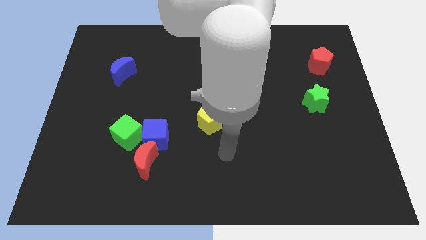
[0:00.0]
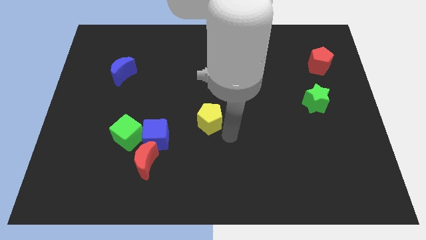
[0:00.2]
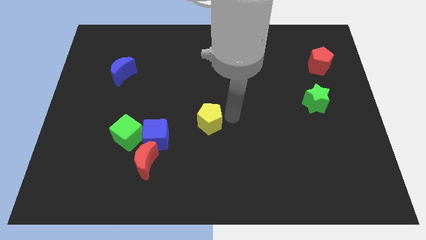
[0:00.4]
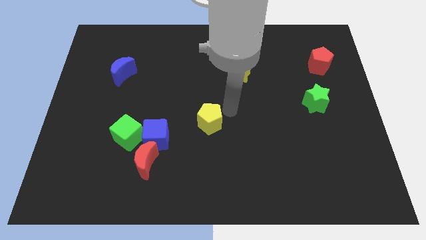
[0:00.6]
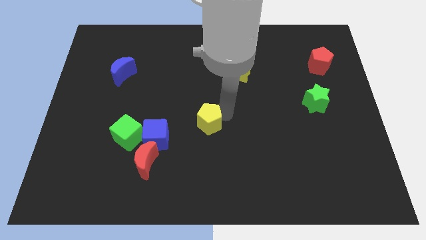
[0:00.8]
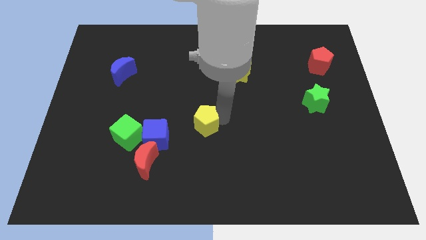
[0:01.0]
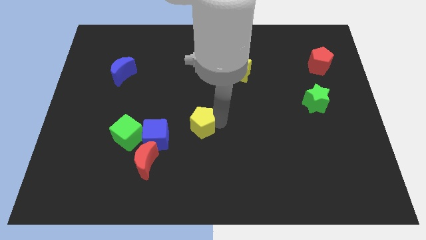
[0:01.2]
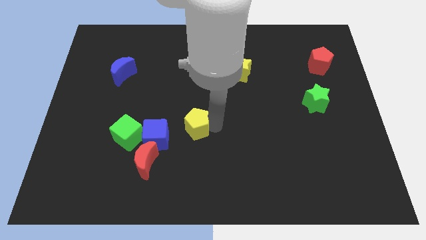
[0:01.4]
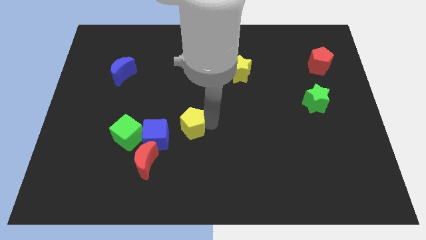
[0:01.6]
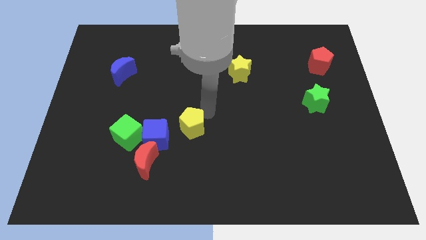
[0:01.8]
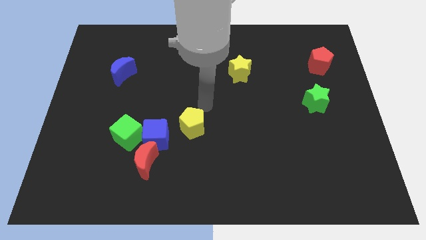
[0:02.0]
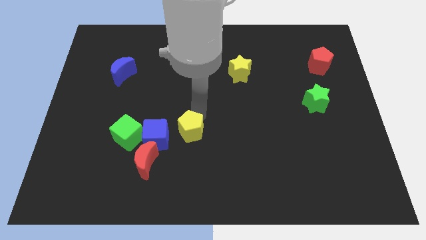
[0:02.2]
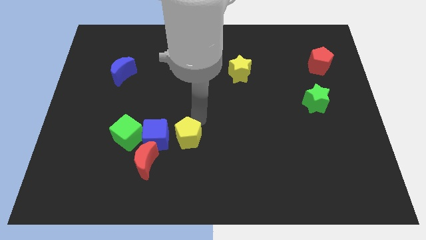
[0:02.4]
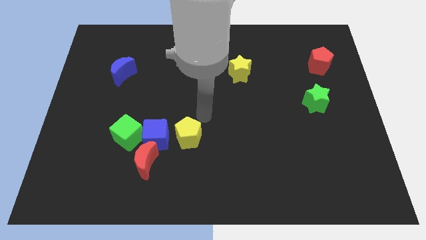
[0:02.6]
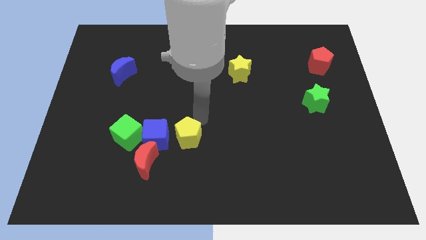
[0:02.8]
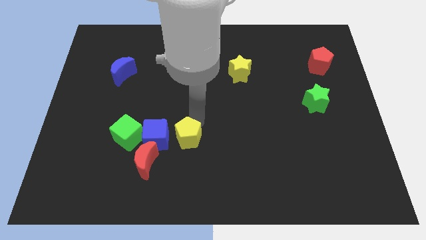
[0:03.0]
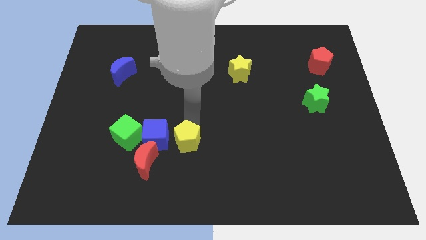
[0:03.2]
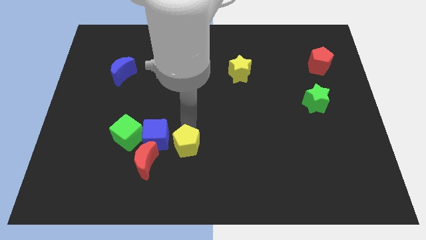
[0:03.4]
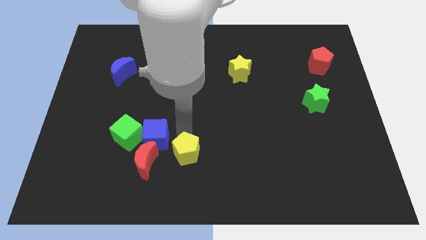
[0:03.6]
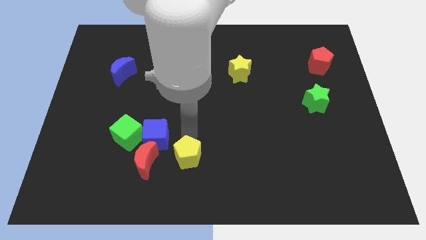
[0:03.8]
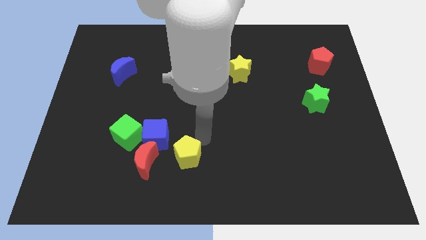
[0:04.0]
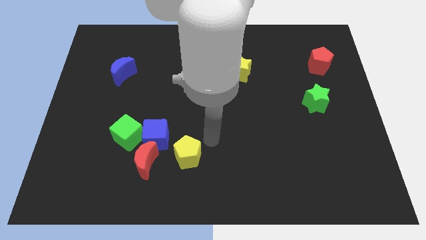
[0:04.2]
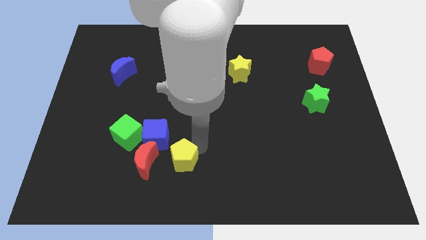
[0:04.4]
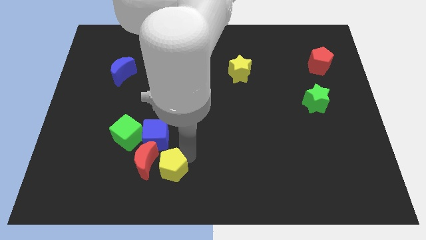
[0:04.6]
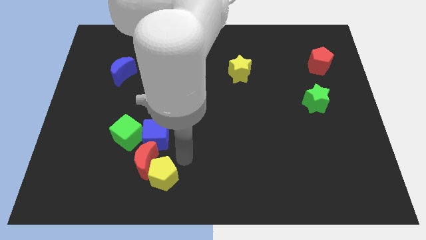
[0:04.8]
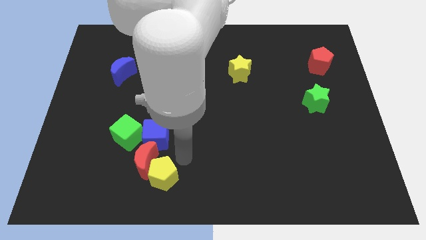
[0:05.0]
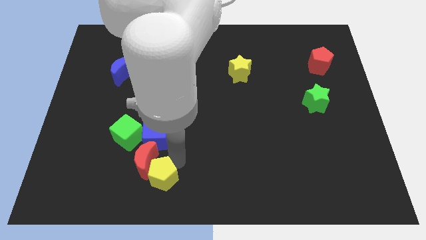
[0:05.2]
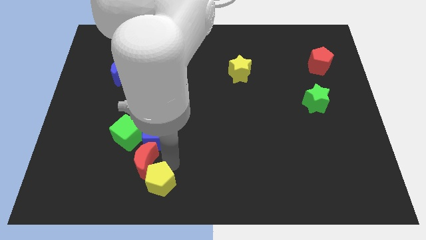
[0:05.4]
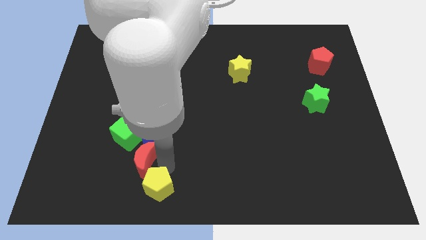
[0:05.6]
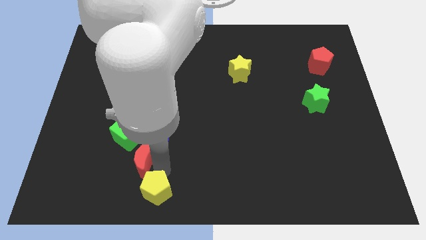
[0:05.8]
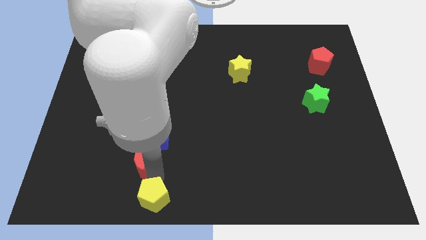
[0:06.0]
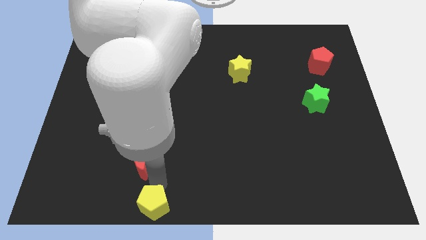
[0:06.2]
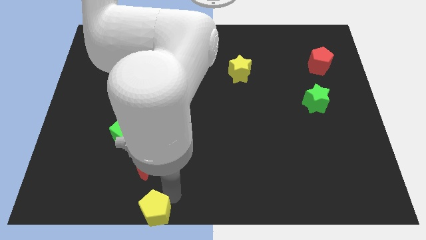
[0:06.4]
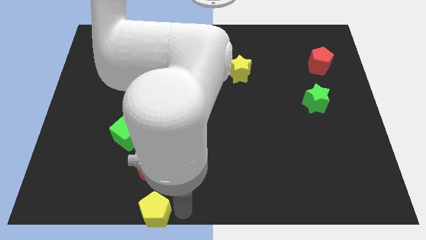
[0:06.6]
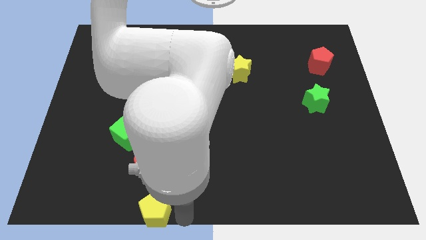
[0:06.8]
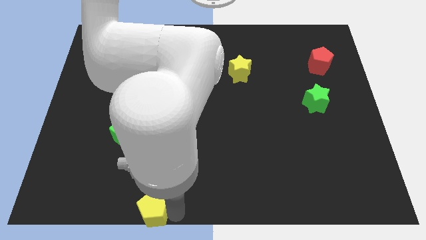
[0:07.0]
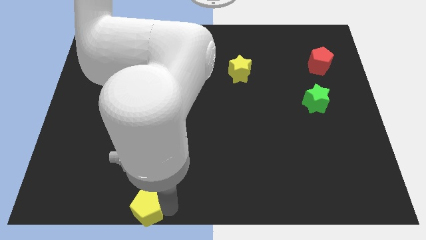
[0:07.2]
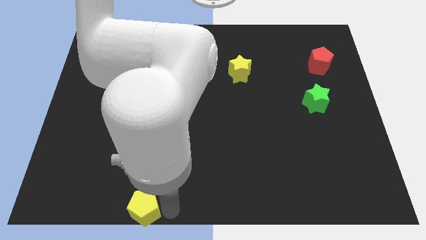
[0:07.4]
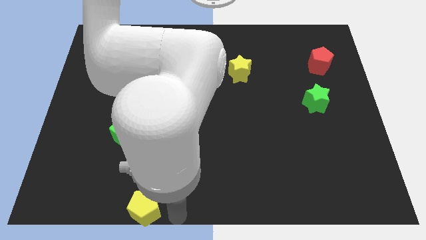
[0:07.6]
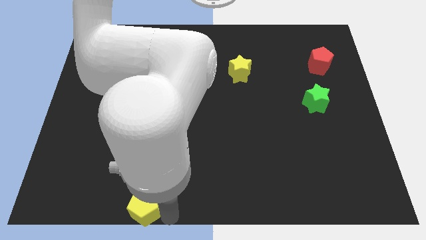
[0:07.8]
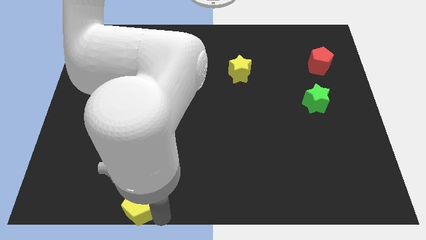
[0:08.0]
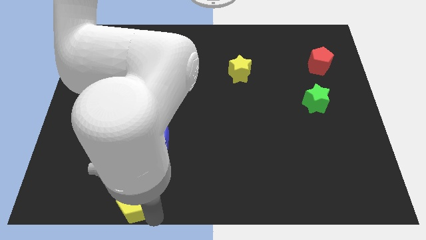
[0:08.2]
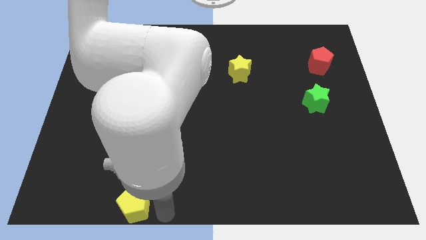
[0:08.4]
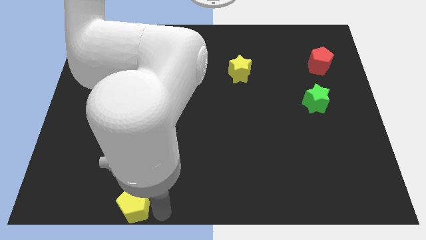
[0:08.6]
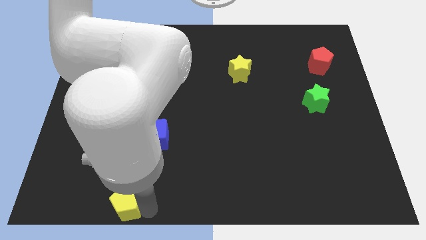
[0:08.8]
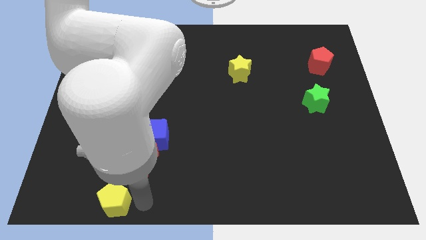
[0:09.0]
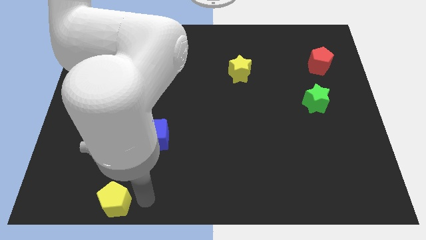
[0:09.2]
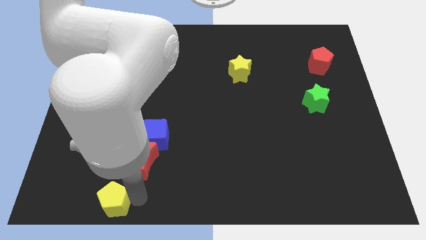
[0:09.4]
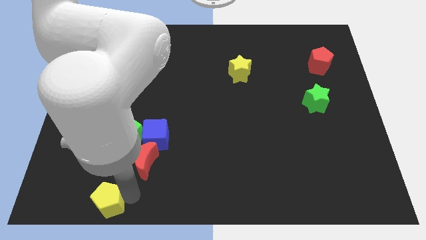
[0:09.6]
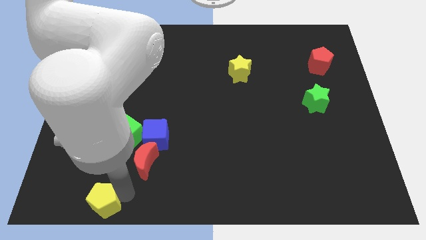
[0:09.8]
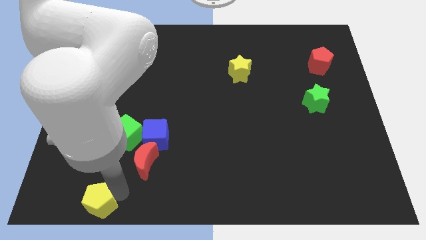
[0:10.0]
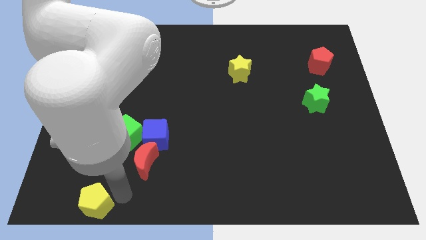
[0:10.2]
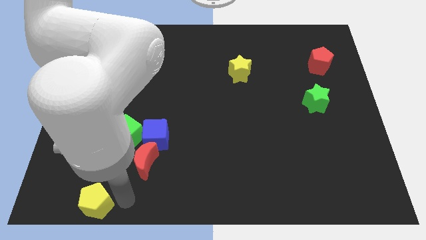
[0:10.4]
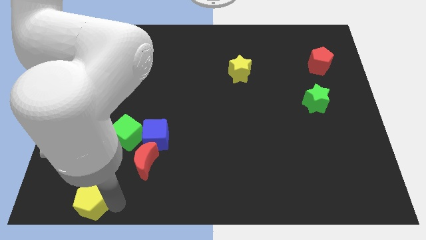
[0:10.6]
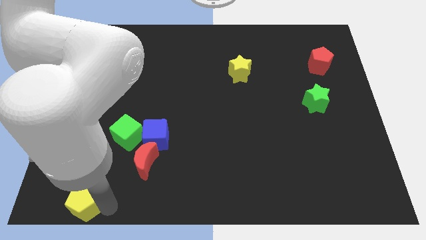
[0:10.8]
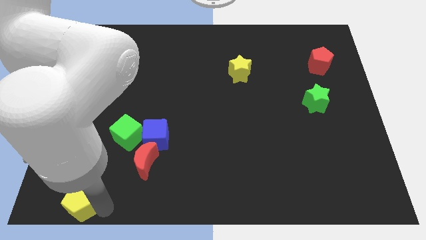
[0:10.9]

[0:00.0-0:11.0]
move the yellow pentagon to the bottom left corner
